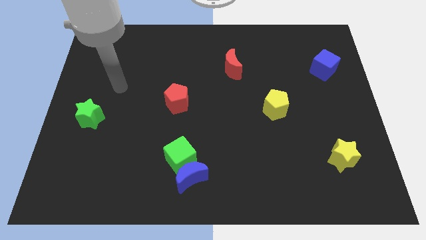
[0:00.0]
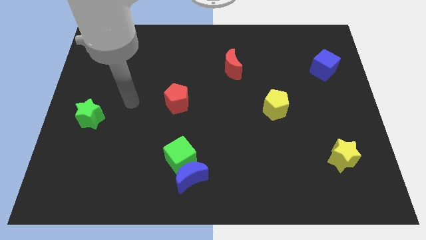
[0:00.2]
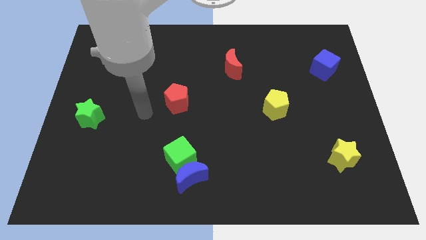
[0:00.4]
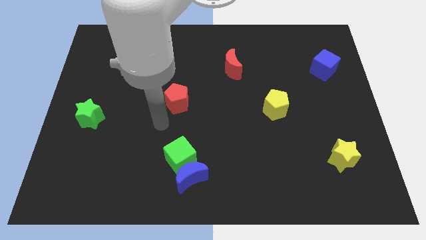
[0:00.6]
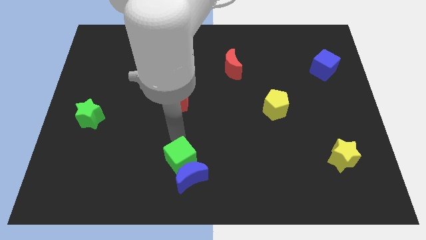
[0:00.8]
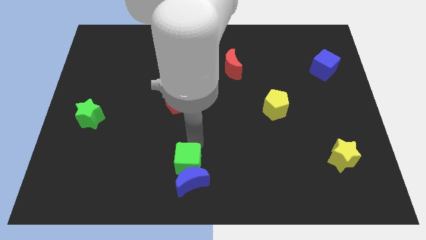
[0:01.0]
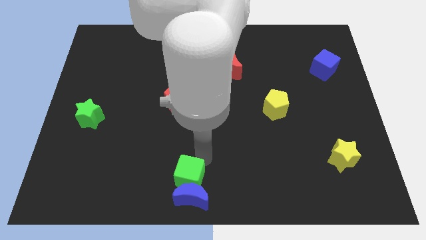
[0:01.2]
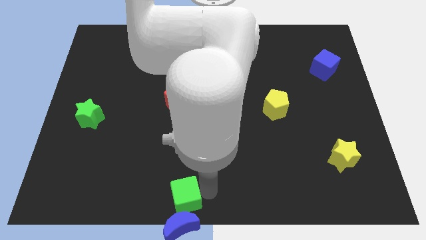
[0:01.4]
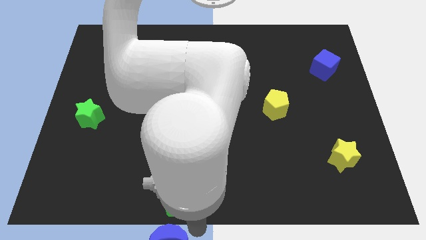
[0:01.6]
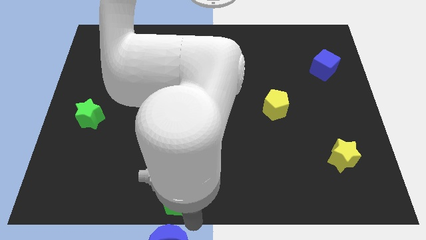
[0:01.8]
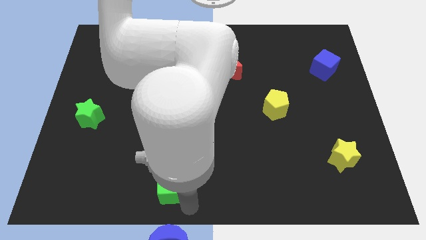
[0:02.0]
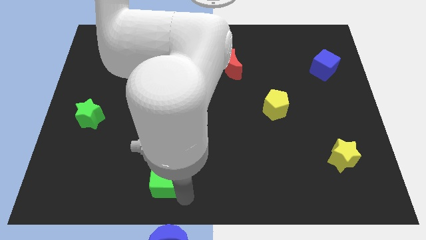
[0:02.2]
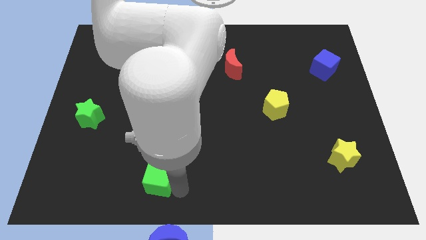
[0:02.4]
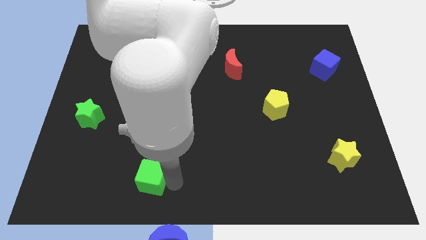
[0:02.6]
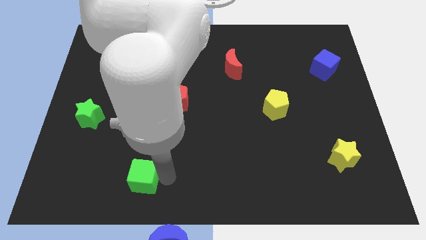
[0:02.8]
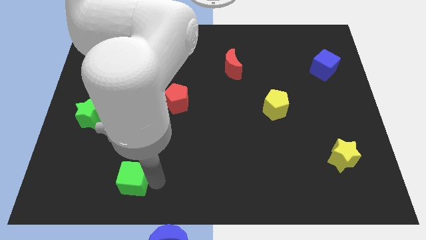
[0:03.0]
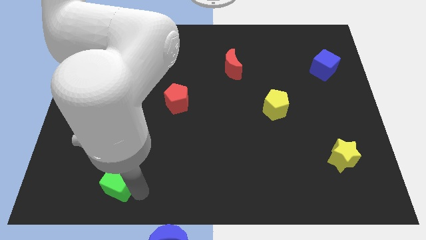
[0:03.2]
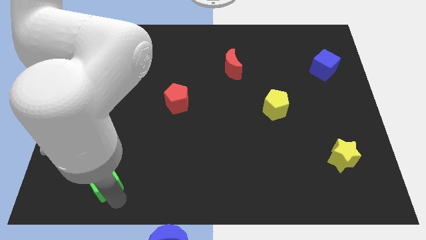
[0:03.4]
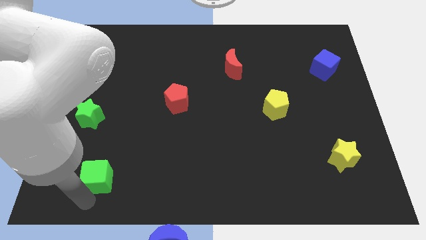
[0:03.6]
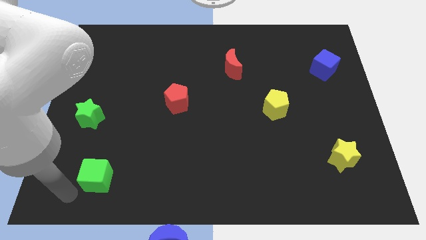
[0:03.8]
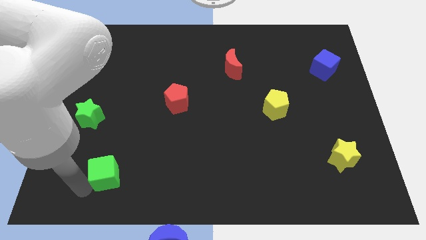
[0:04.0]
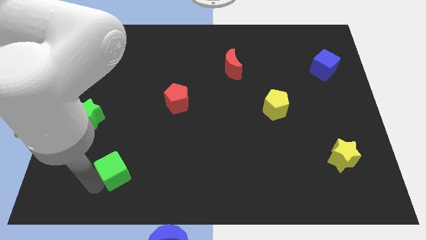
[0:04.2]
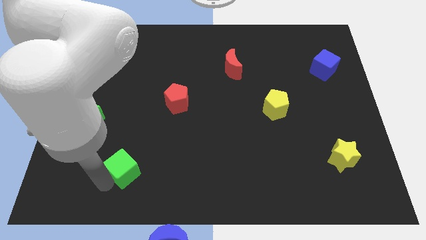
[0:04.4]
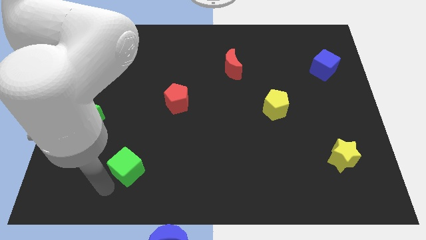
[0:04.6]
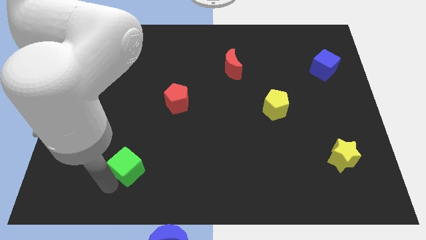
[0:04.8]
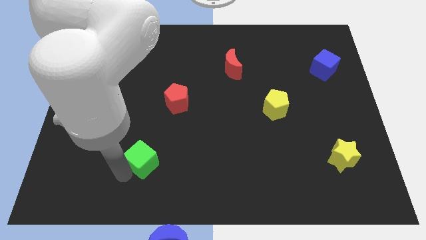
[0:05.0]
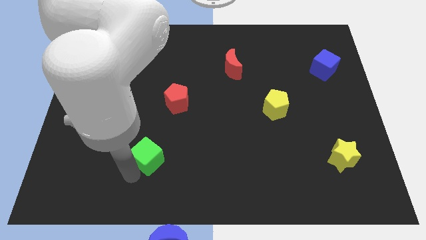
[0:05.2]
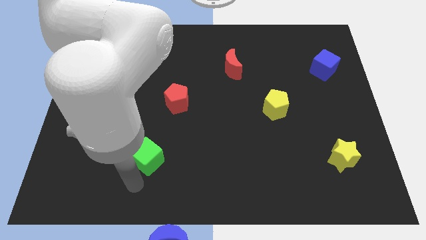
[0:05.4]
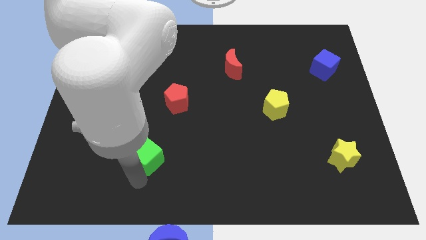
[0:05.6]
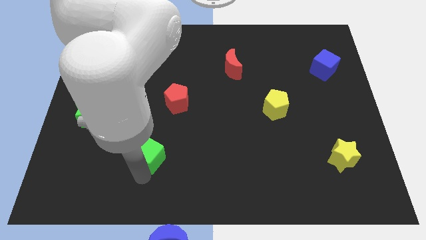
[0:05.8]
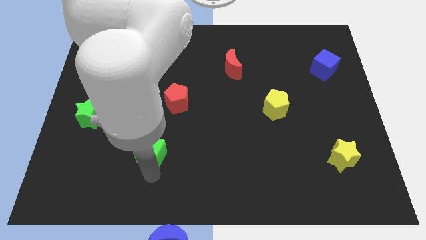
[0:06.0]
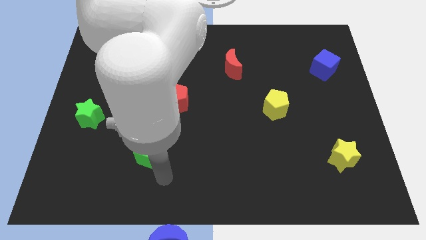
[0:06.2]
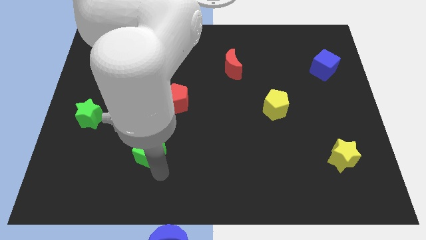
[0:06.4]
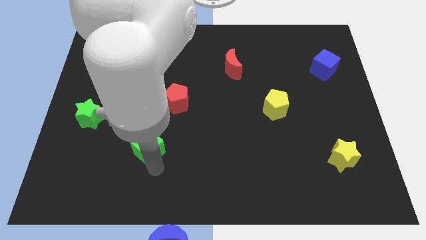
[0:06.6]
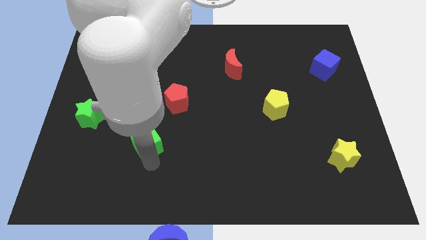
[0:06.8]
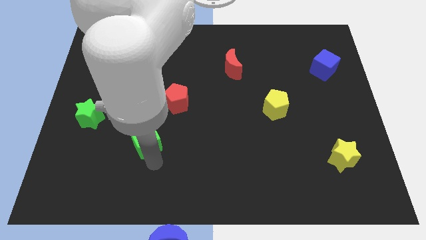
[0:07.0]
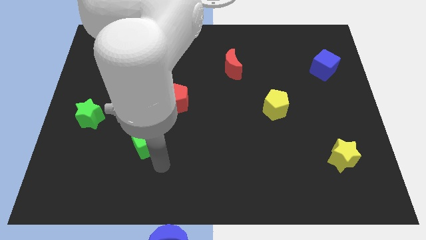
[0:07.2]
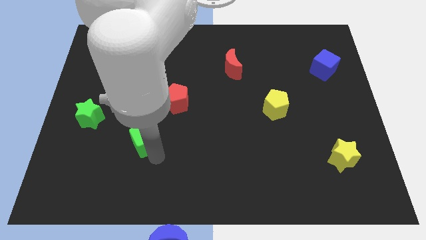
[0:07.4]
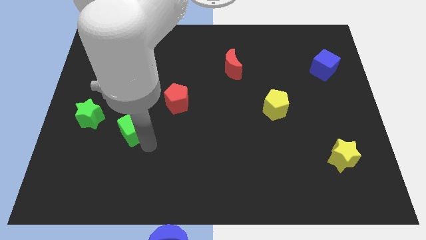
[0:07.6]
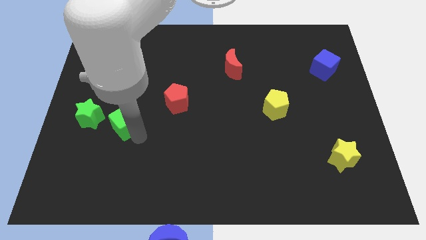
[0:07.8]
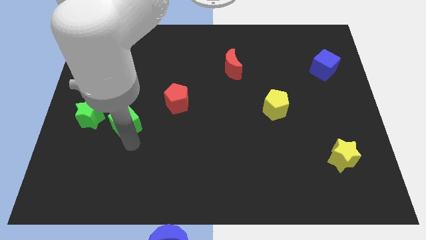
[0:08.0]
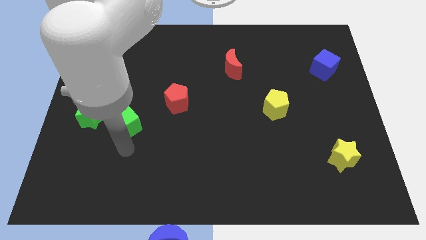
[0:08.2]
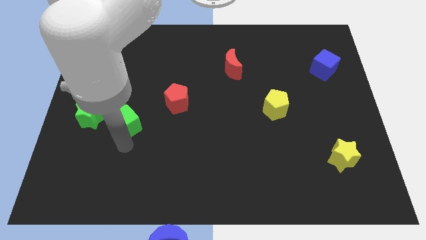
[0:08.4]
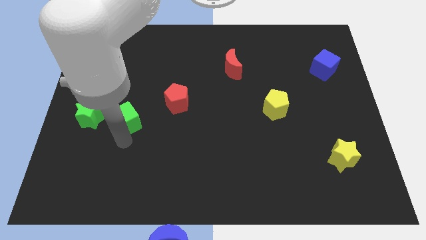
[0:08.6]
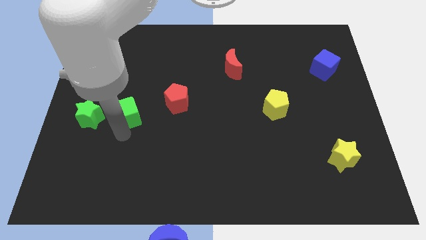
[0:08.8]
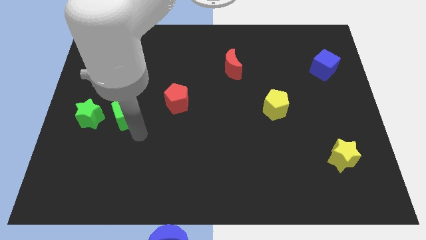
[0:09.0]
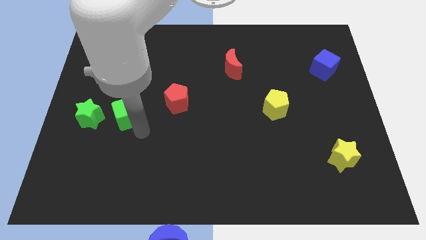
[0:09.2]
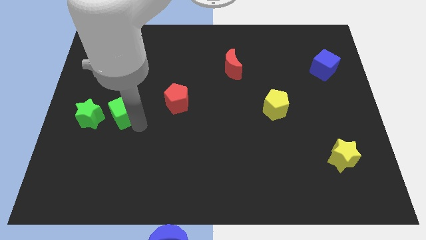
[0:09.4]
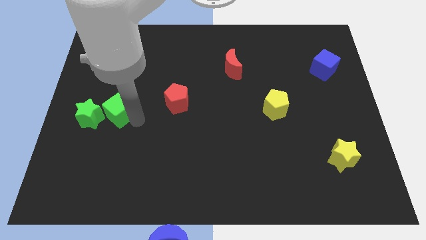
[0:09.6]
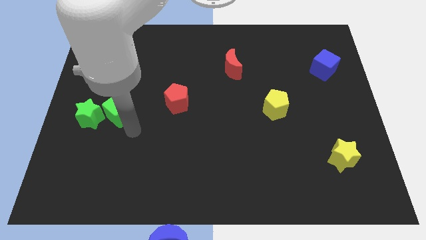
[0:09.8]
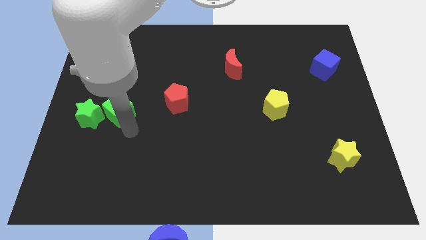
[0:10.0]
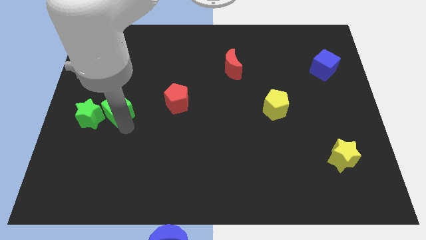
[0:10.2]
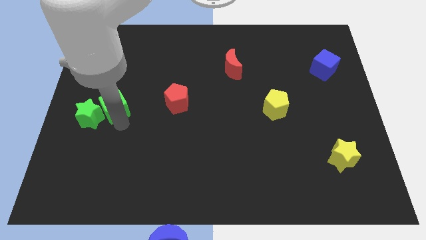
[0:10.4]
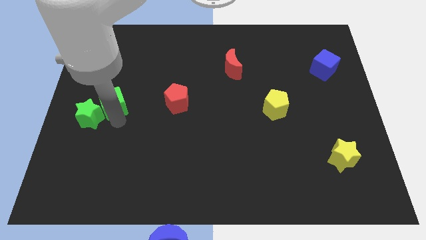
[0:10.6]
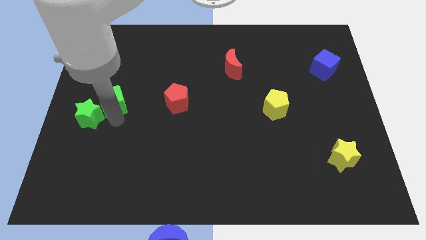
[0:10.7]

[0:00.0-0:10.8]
slide the green cube to the top of the green star

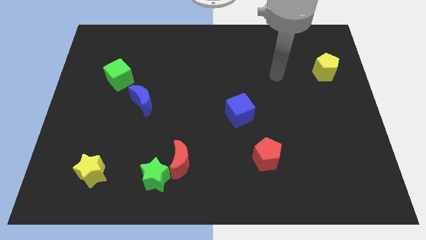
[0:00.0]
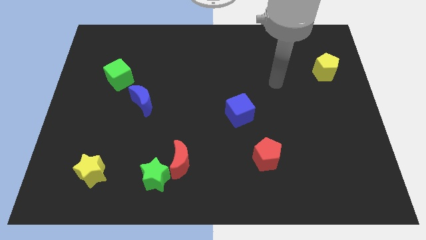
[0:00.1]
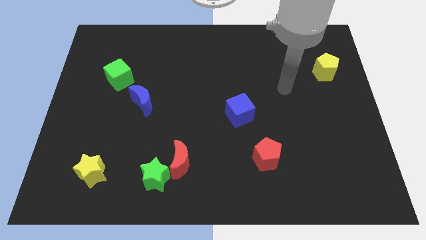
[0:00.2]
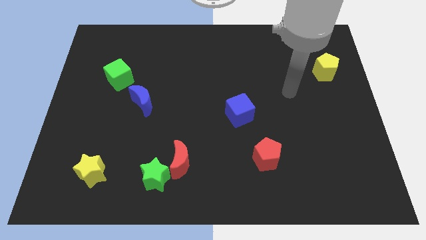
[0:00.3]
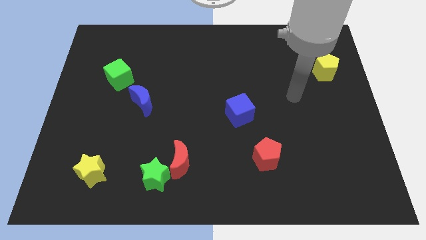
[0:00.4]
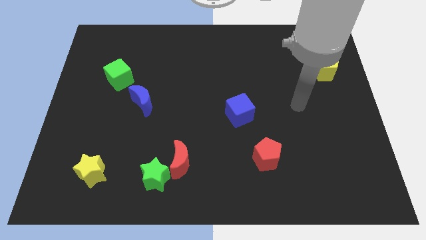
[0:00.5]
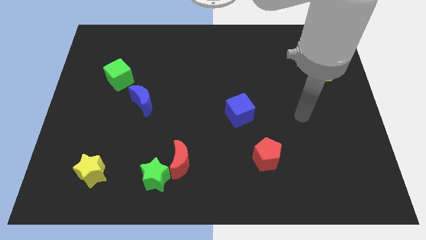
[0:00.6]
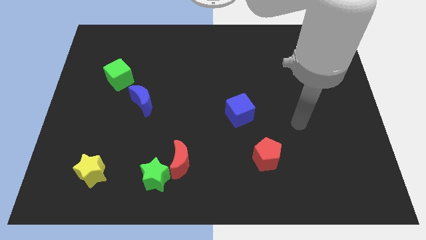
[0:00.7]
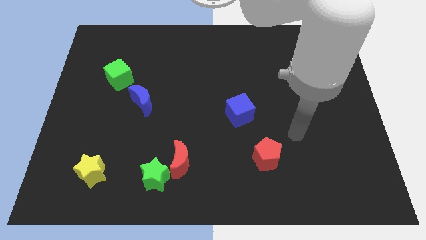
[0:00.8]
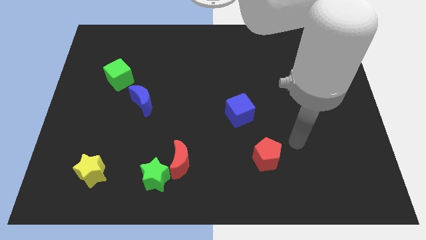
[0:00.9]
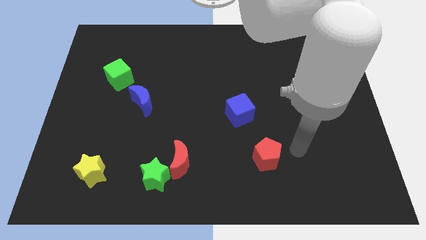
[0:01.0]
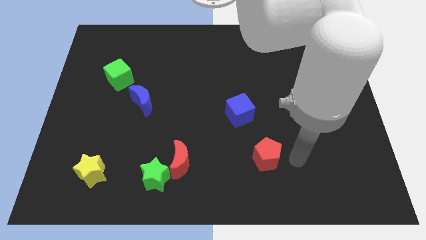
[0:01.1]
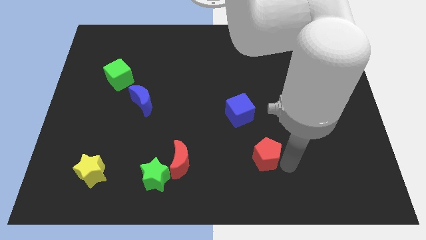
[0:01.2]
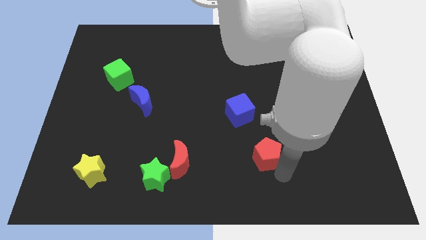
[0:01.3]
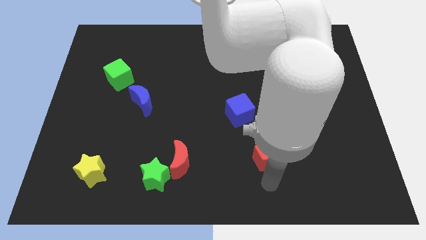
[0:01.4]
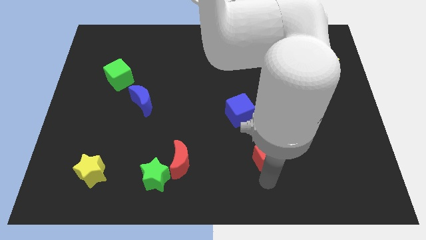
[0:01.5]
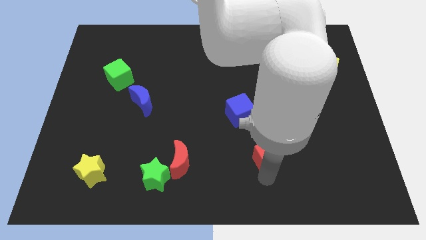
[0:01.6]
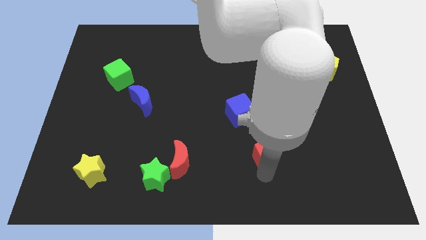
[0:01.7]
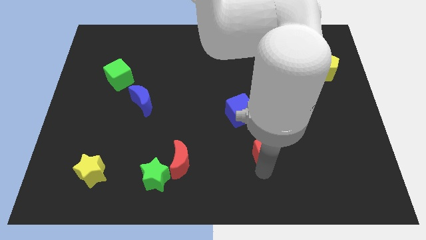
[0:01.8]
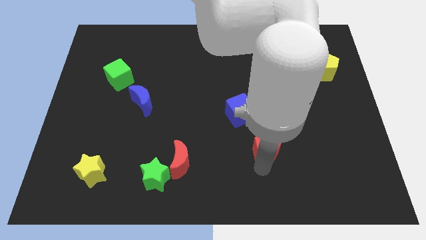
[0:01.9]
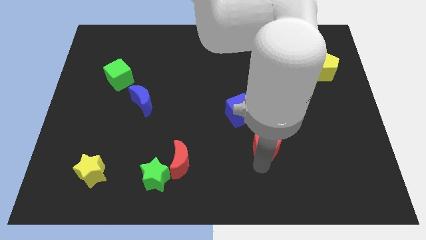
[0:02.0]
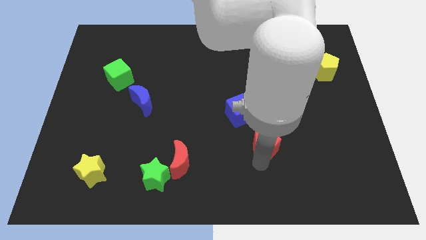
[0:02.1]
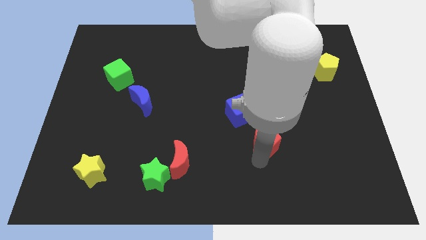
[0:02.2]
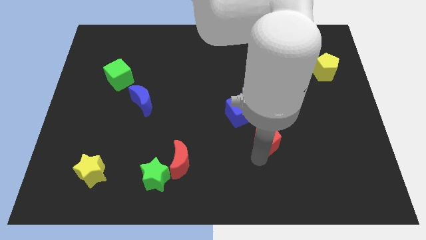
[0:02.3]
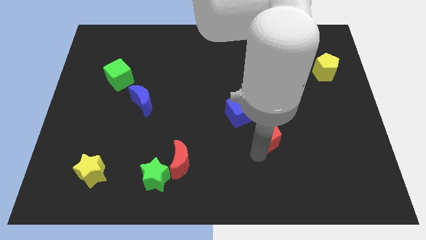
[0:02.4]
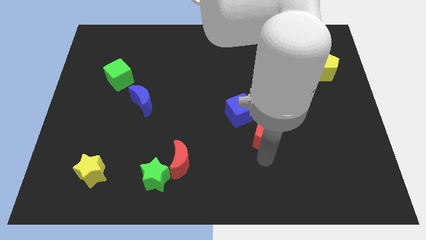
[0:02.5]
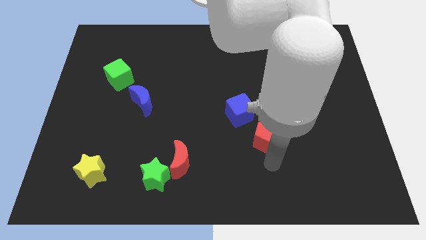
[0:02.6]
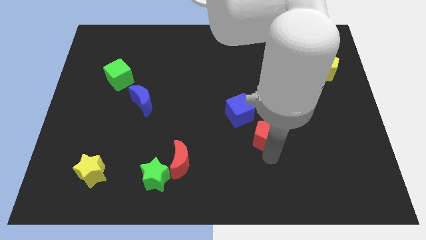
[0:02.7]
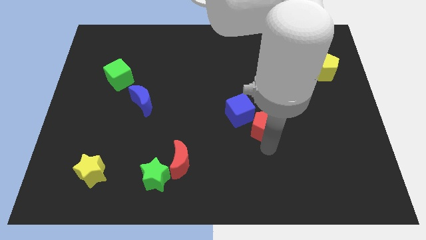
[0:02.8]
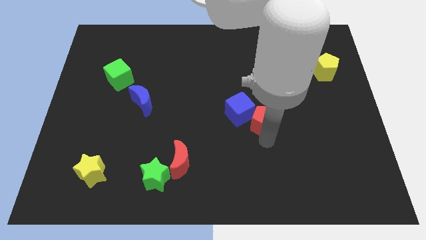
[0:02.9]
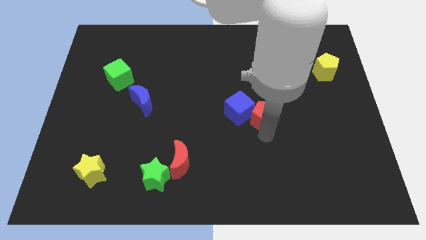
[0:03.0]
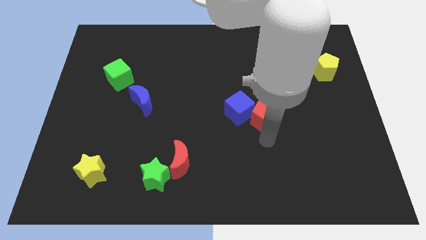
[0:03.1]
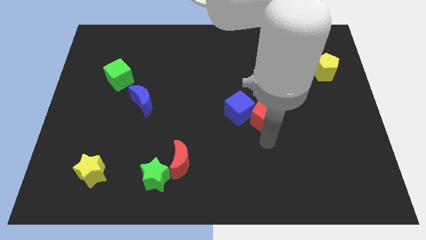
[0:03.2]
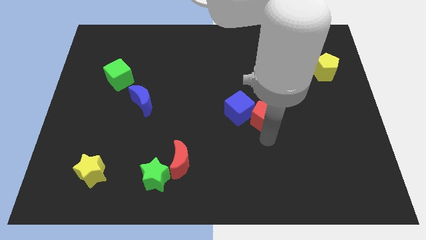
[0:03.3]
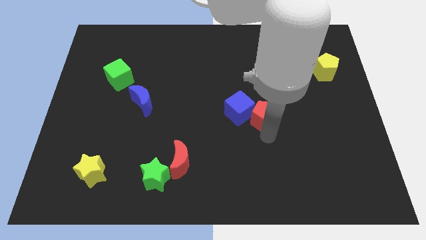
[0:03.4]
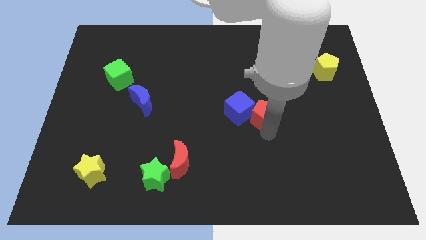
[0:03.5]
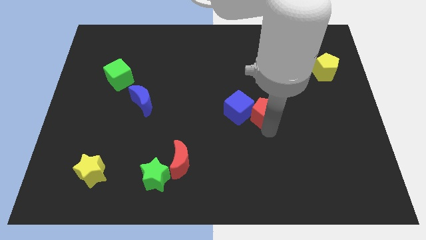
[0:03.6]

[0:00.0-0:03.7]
put the red pentagon to the top right side of the blue cube
